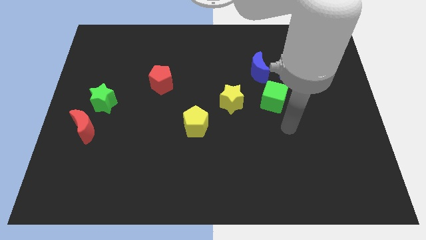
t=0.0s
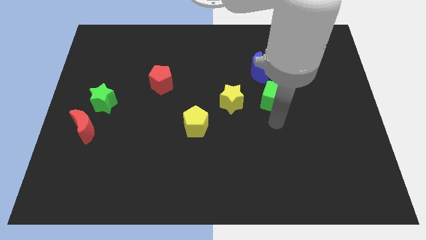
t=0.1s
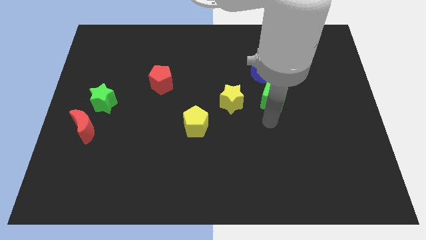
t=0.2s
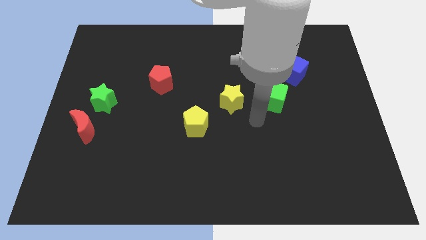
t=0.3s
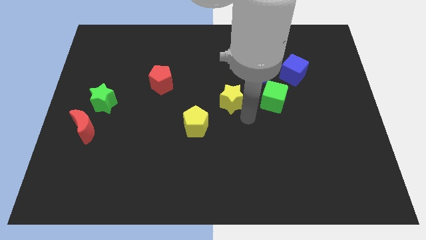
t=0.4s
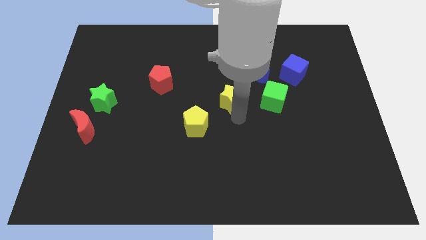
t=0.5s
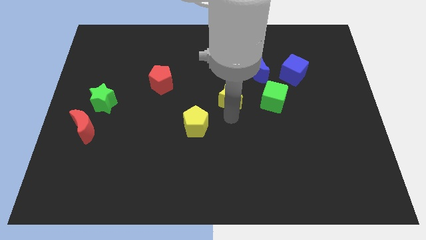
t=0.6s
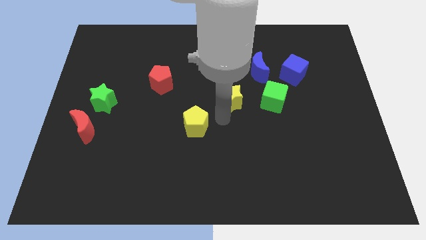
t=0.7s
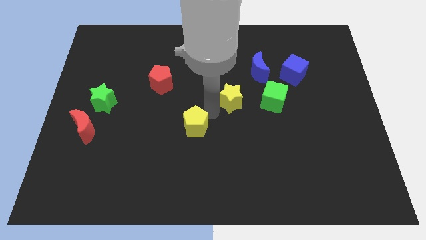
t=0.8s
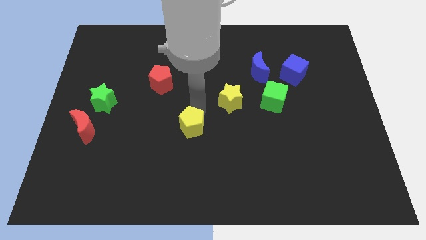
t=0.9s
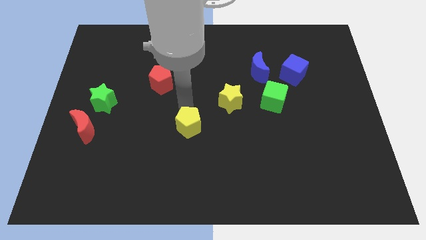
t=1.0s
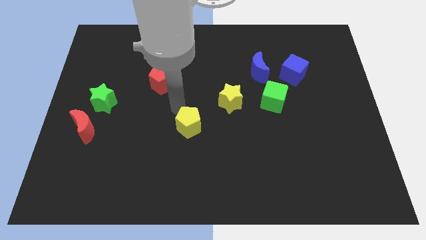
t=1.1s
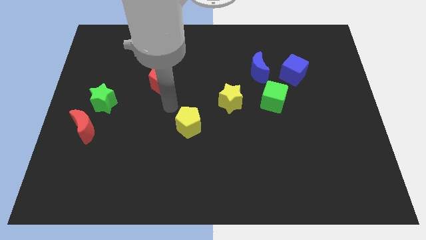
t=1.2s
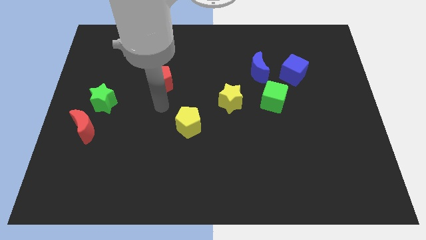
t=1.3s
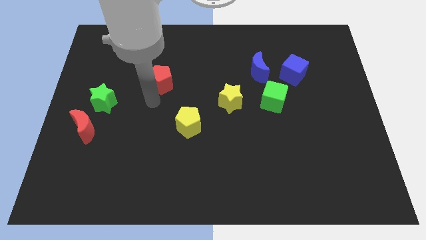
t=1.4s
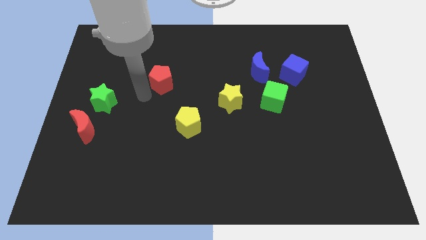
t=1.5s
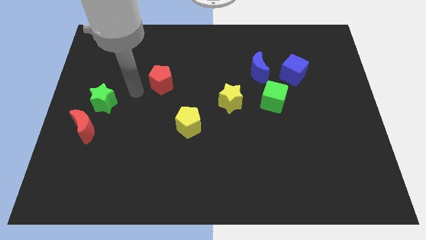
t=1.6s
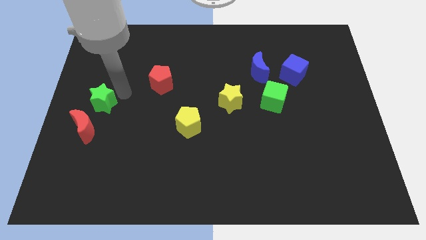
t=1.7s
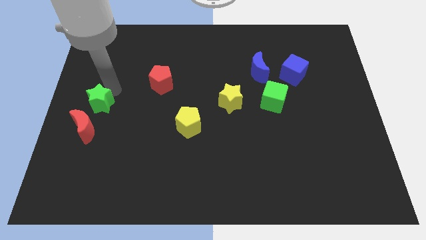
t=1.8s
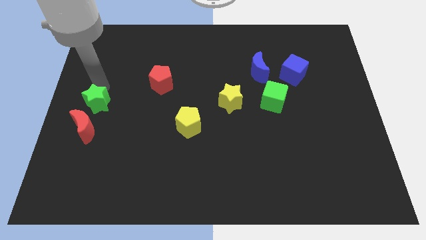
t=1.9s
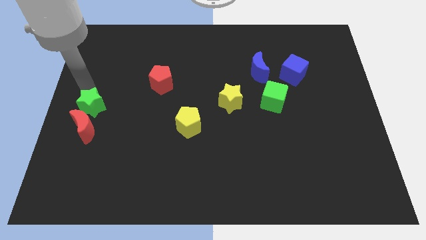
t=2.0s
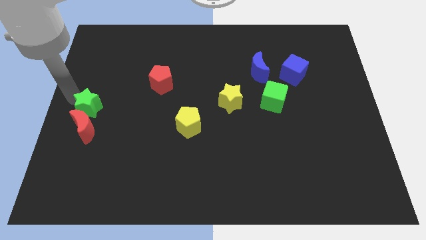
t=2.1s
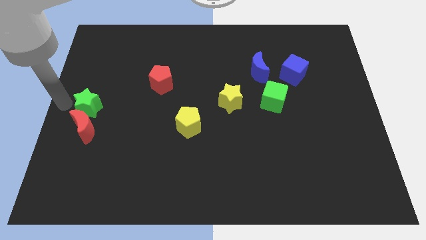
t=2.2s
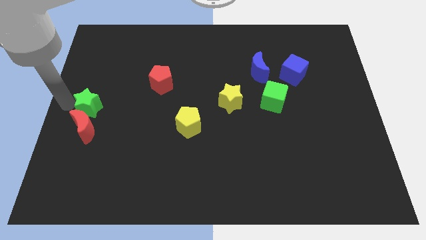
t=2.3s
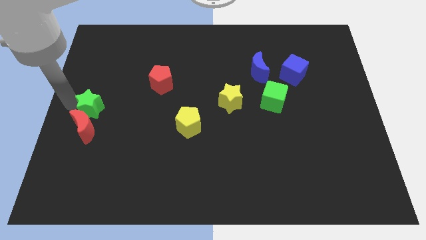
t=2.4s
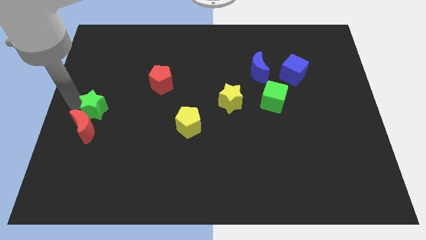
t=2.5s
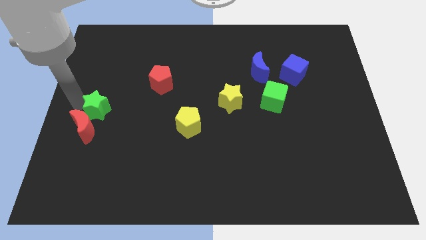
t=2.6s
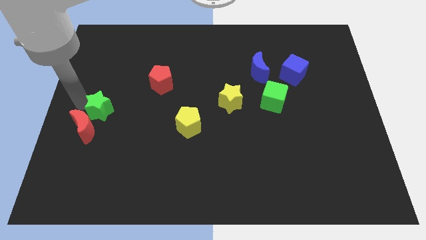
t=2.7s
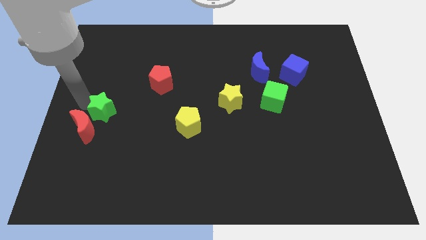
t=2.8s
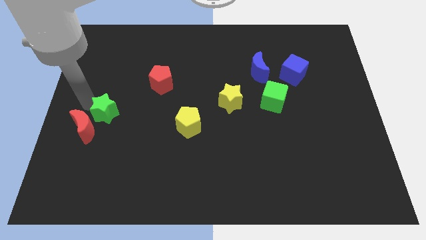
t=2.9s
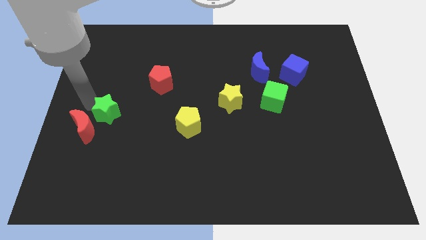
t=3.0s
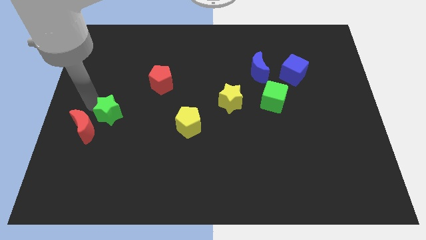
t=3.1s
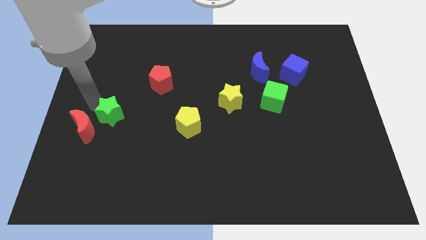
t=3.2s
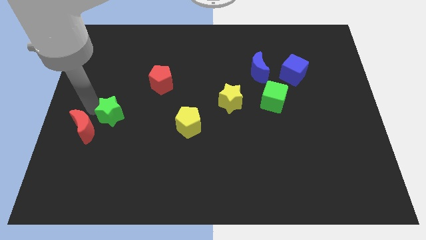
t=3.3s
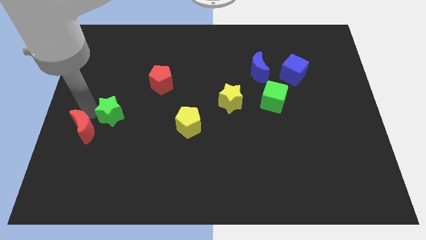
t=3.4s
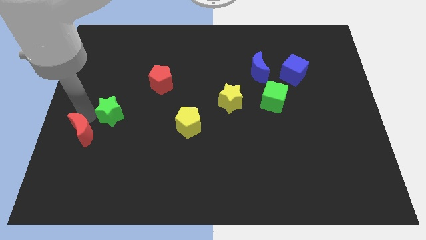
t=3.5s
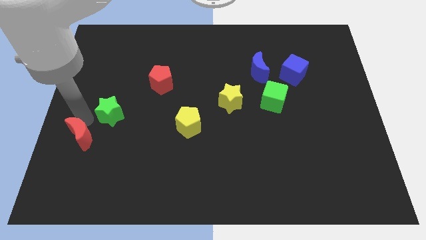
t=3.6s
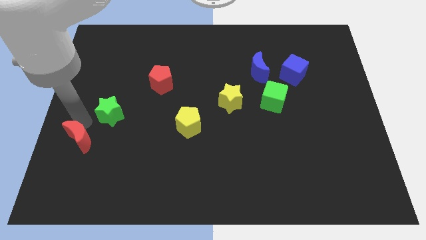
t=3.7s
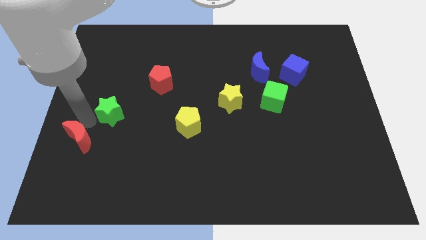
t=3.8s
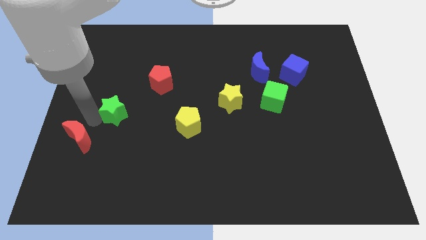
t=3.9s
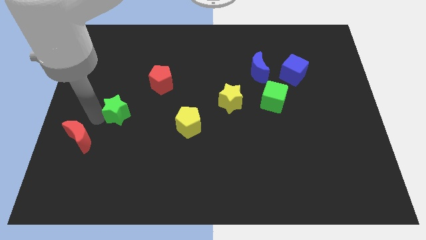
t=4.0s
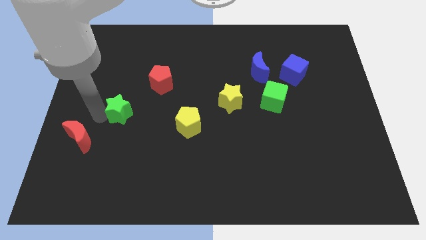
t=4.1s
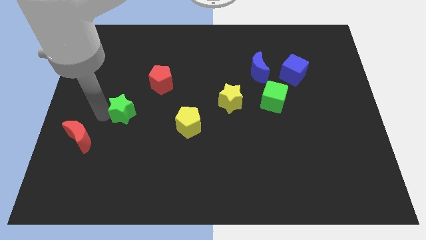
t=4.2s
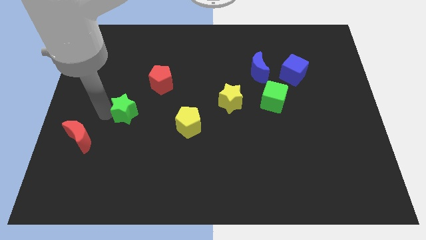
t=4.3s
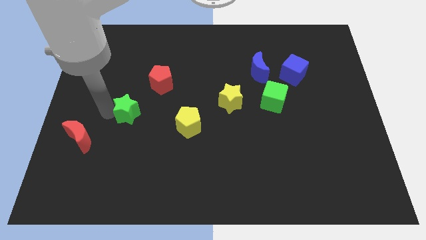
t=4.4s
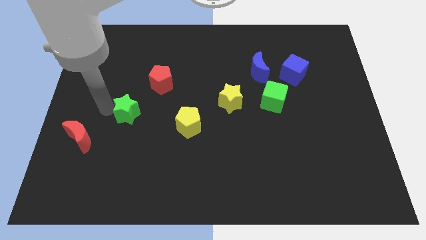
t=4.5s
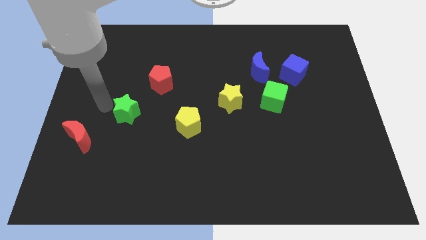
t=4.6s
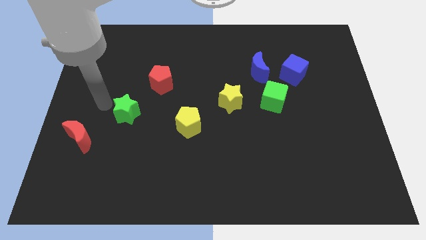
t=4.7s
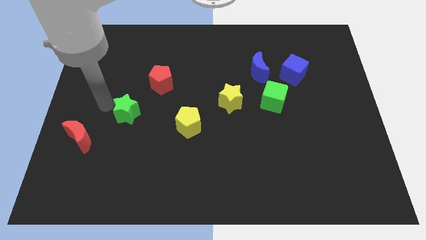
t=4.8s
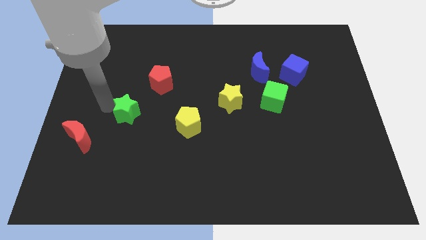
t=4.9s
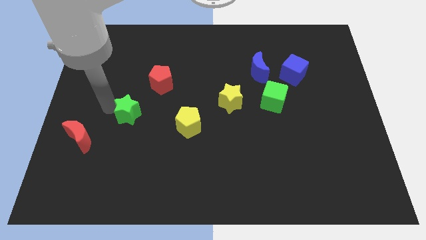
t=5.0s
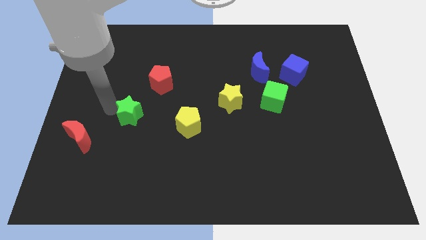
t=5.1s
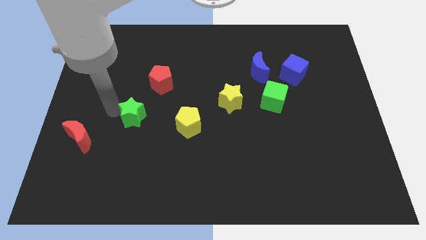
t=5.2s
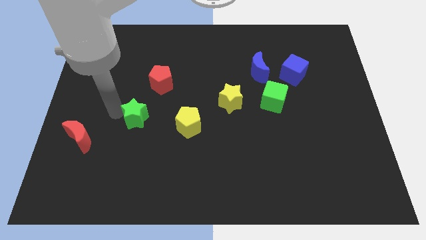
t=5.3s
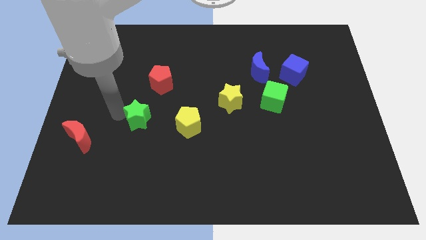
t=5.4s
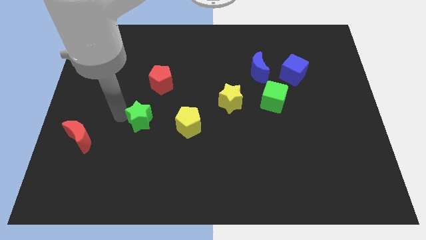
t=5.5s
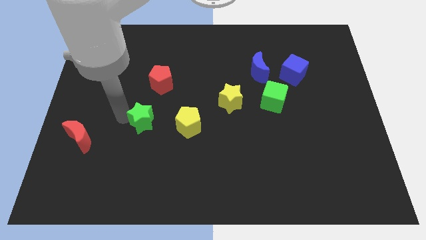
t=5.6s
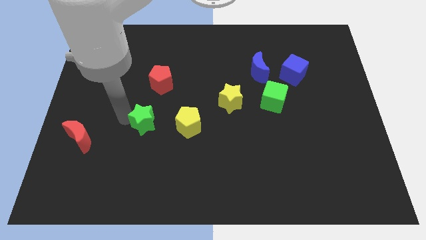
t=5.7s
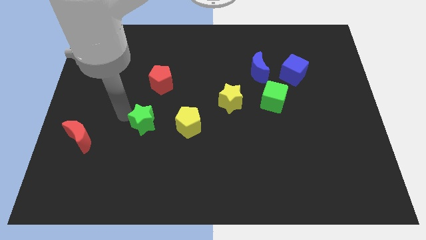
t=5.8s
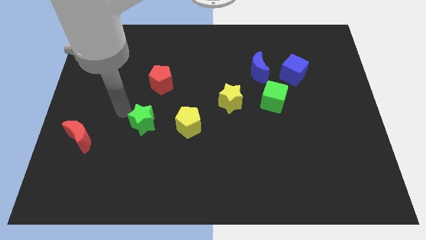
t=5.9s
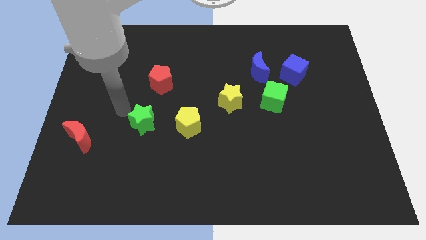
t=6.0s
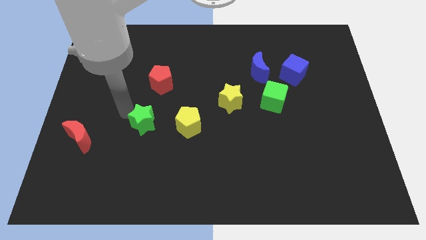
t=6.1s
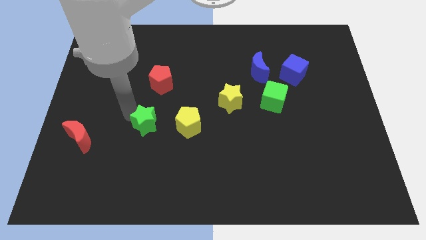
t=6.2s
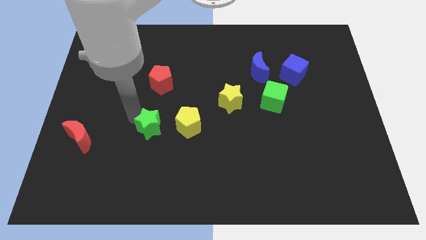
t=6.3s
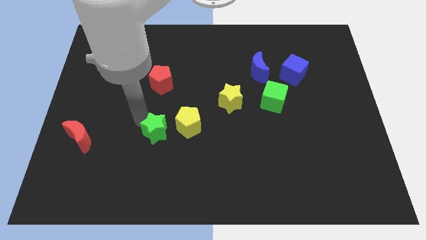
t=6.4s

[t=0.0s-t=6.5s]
push the green star to the bottom left side of the yellow pentagon
